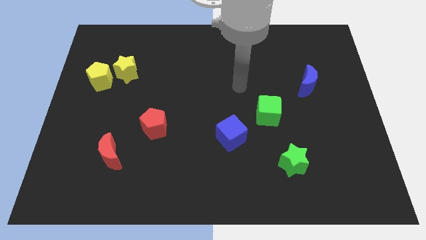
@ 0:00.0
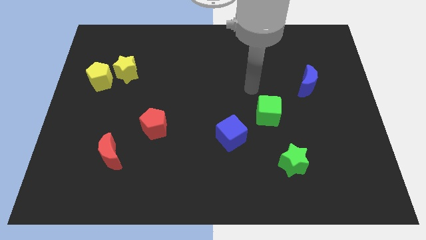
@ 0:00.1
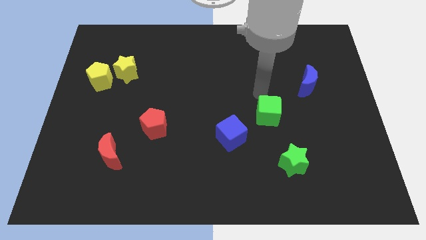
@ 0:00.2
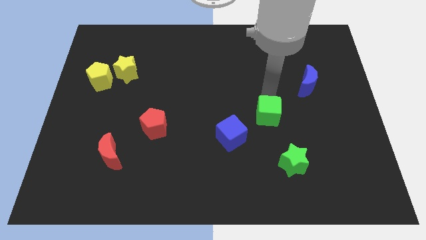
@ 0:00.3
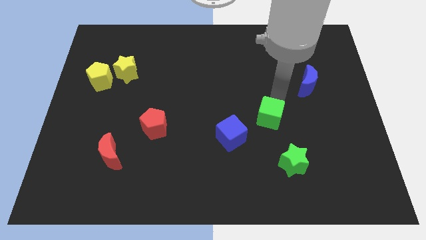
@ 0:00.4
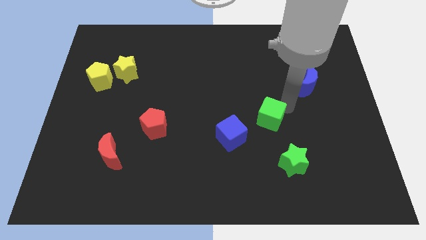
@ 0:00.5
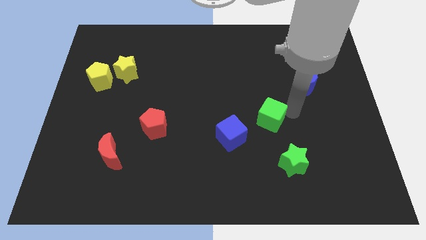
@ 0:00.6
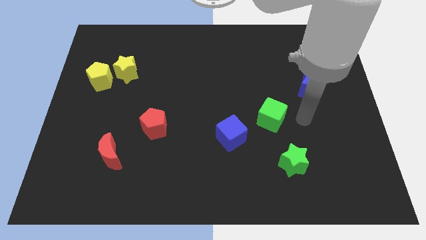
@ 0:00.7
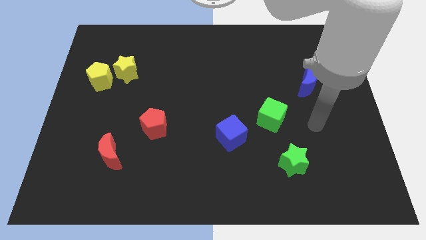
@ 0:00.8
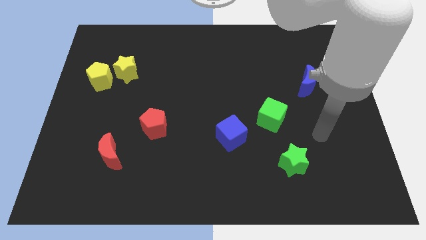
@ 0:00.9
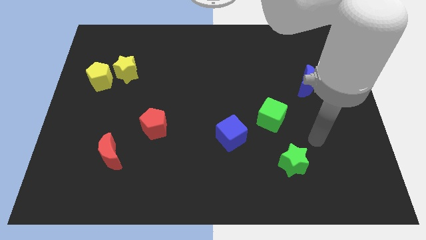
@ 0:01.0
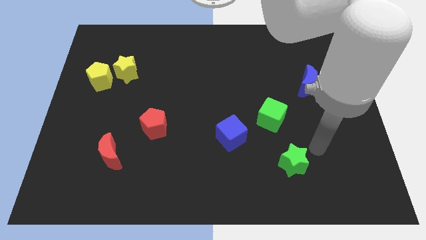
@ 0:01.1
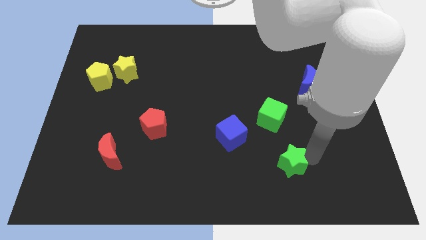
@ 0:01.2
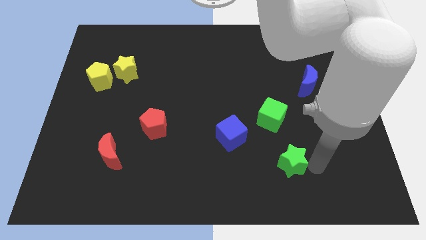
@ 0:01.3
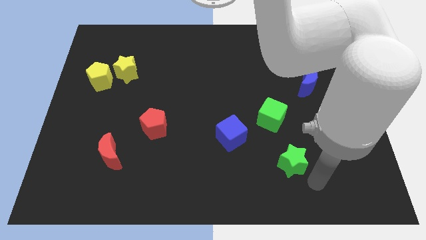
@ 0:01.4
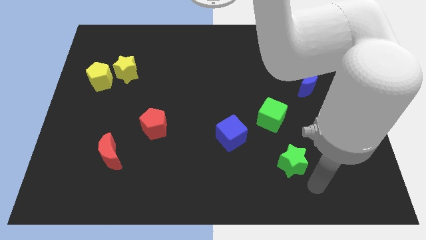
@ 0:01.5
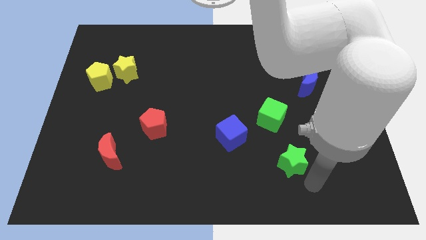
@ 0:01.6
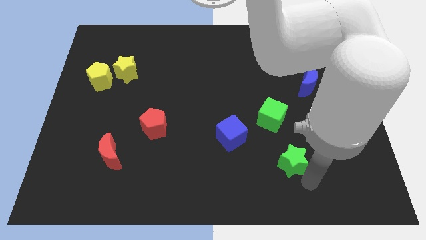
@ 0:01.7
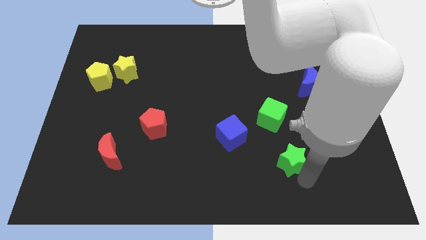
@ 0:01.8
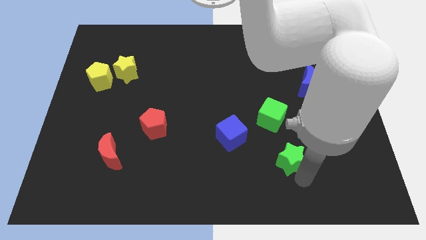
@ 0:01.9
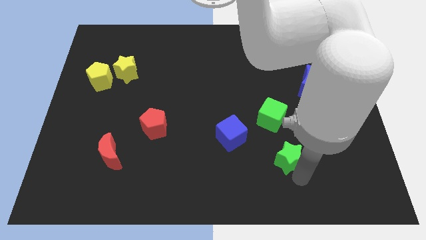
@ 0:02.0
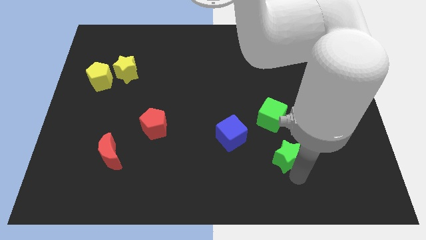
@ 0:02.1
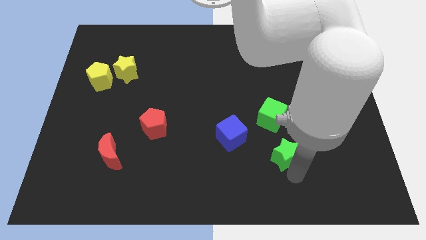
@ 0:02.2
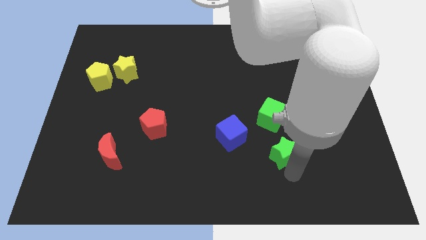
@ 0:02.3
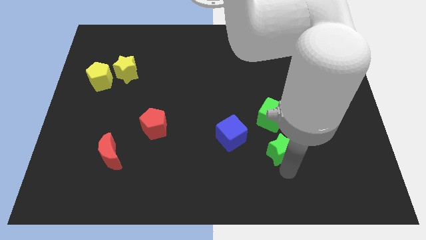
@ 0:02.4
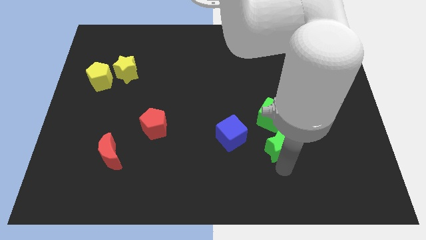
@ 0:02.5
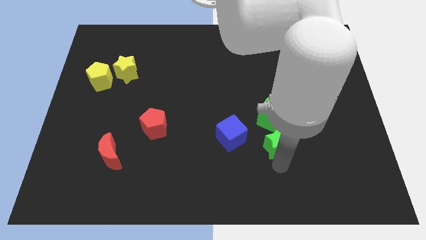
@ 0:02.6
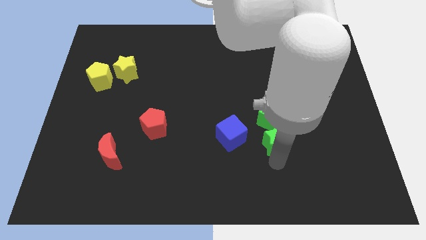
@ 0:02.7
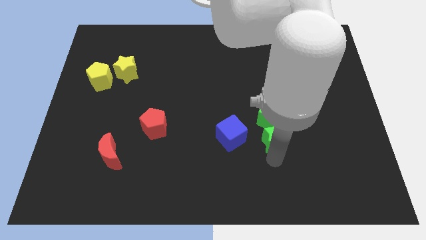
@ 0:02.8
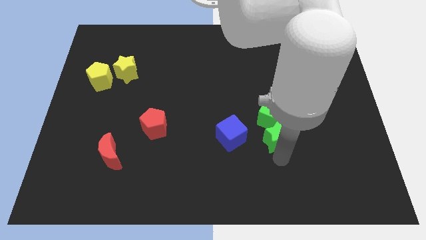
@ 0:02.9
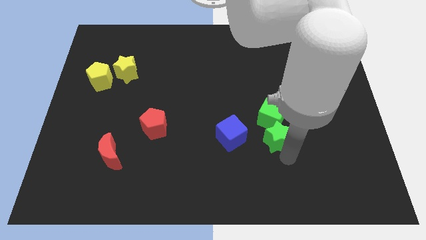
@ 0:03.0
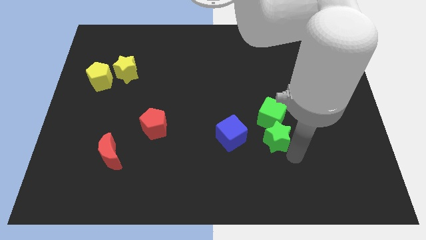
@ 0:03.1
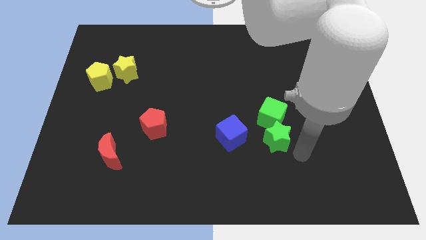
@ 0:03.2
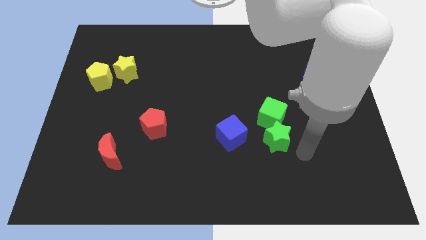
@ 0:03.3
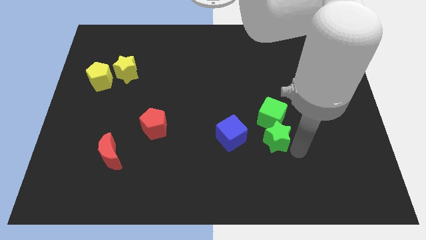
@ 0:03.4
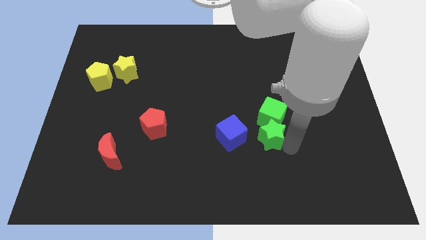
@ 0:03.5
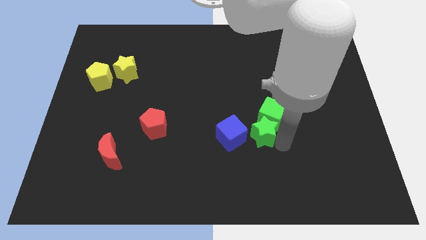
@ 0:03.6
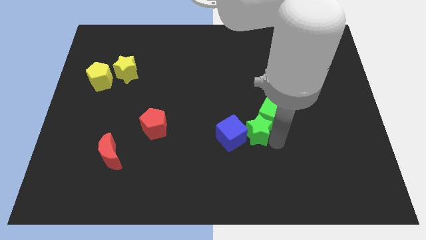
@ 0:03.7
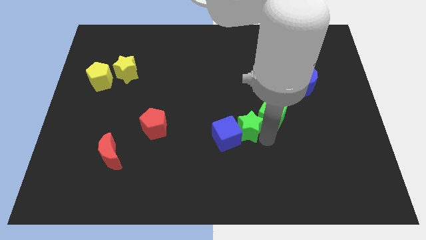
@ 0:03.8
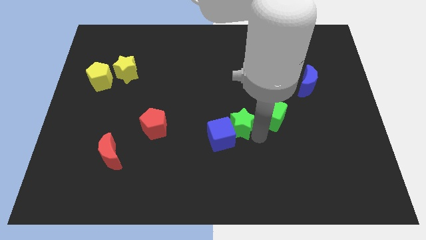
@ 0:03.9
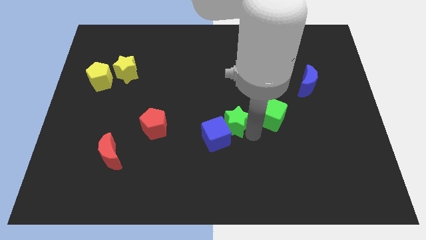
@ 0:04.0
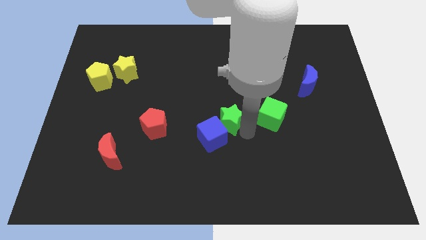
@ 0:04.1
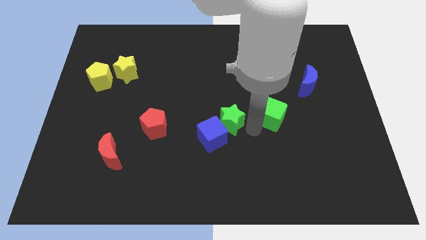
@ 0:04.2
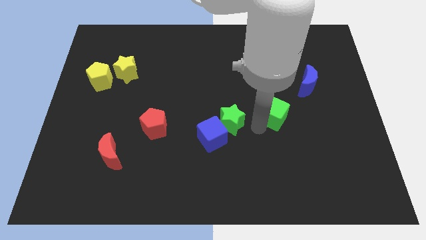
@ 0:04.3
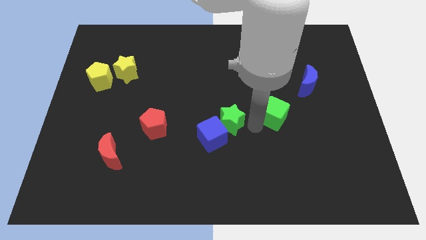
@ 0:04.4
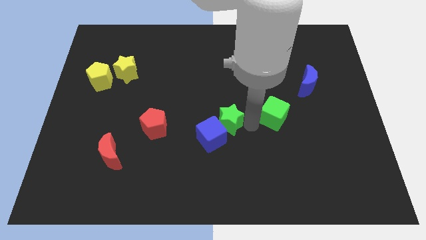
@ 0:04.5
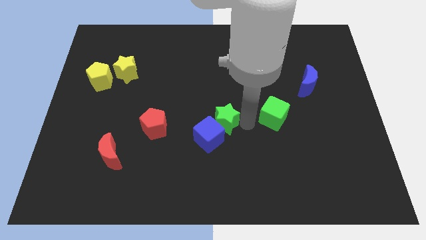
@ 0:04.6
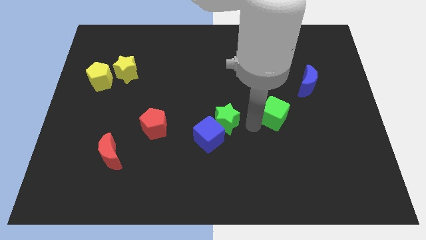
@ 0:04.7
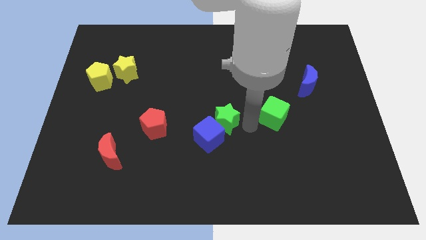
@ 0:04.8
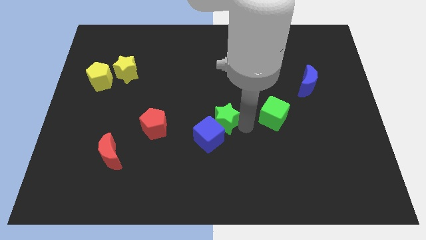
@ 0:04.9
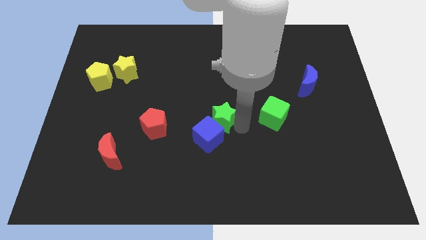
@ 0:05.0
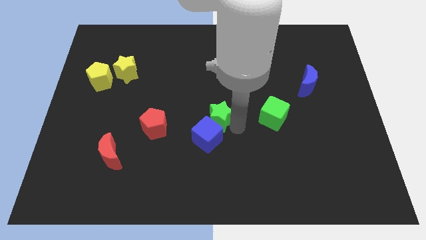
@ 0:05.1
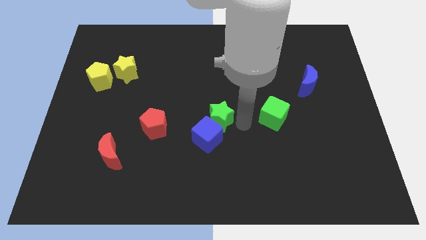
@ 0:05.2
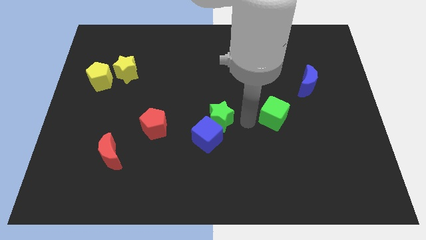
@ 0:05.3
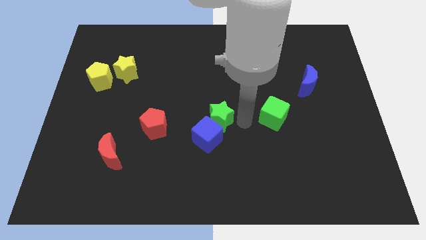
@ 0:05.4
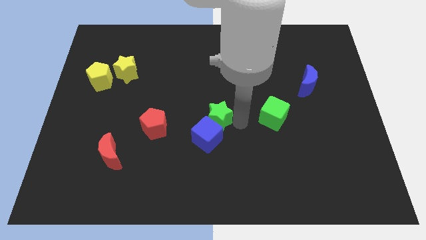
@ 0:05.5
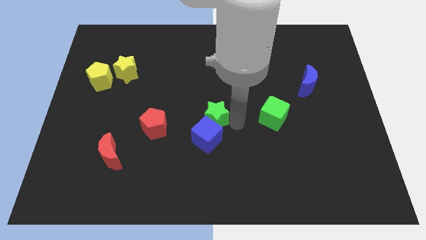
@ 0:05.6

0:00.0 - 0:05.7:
slide the green star to the top left of the blue cube

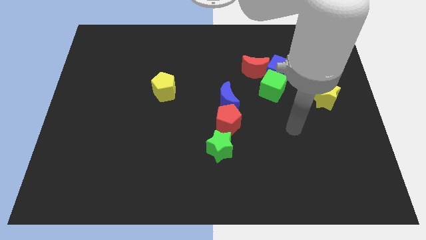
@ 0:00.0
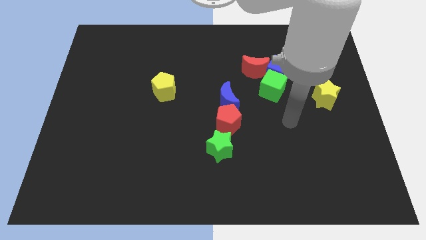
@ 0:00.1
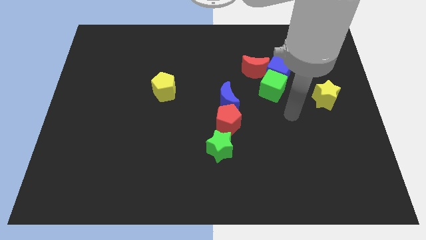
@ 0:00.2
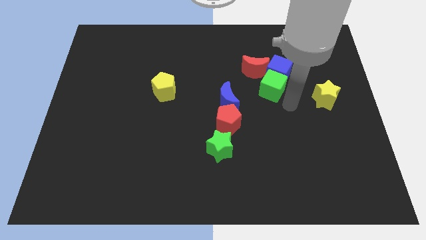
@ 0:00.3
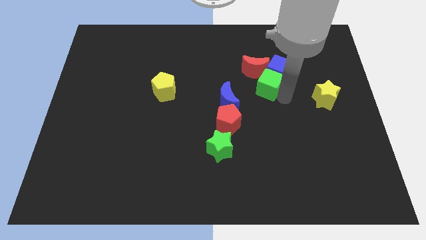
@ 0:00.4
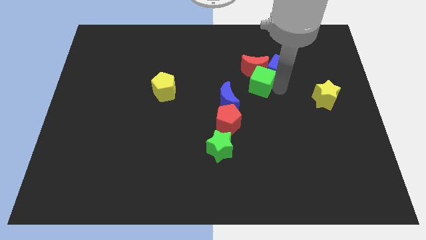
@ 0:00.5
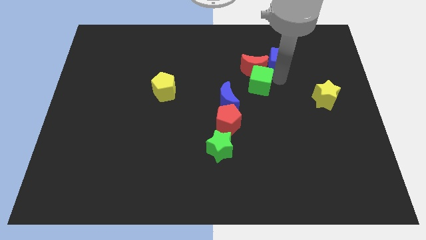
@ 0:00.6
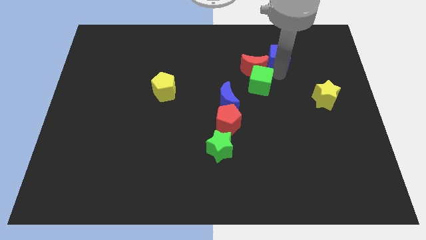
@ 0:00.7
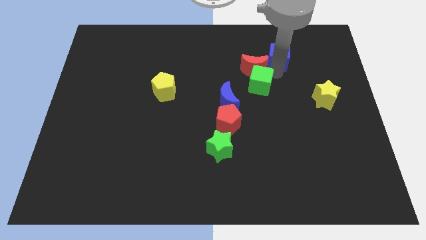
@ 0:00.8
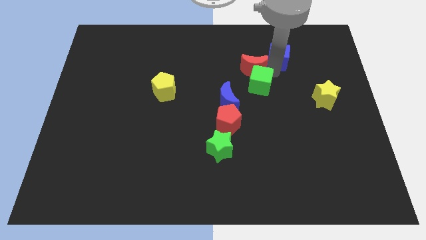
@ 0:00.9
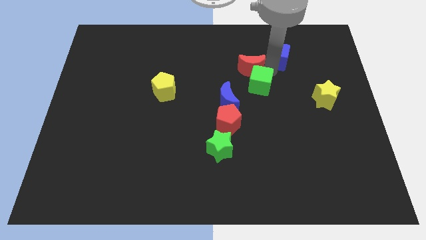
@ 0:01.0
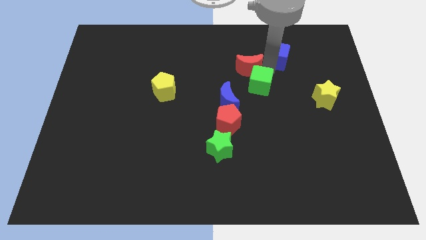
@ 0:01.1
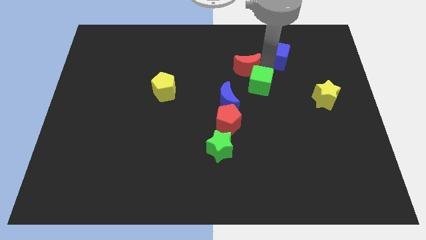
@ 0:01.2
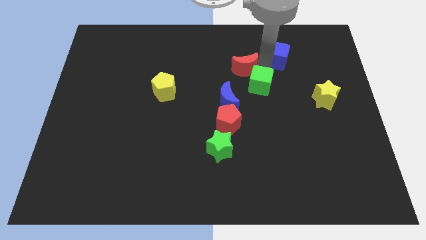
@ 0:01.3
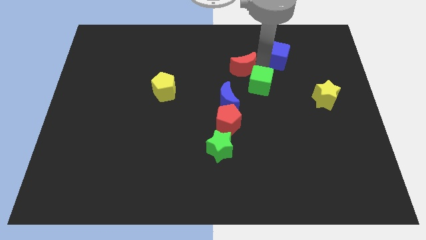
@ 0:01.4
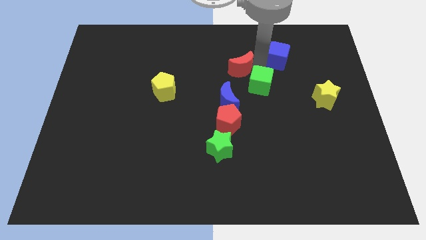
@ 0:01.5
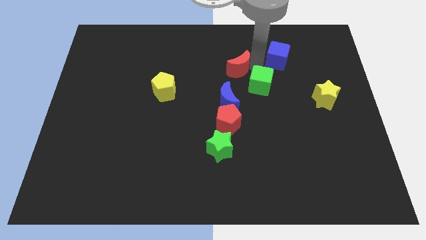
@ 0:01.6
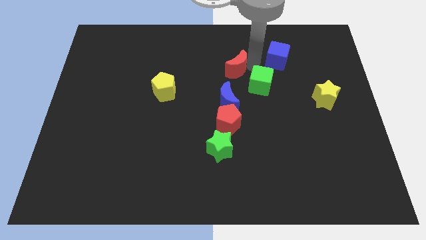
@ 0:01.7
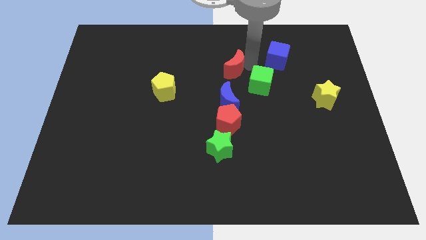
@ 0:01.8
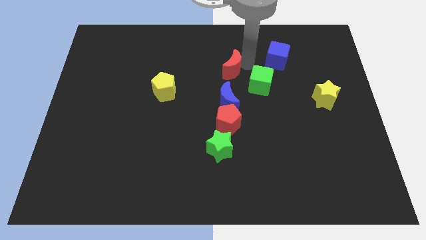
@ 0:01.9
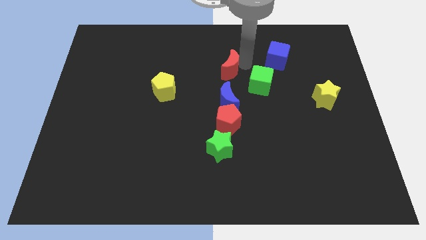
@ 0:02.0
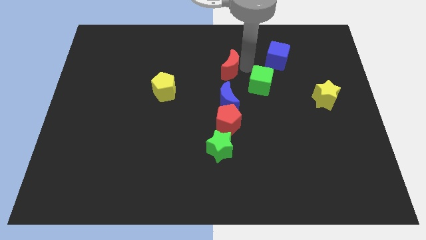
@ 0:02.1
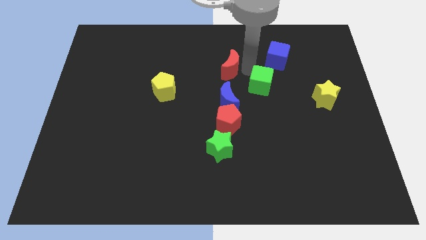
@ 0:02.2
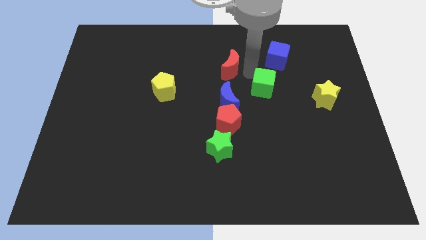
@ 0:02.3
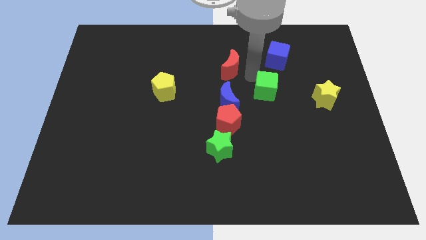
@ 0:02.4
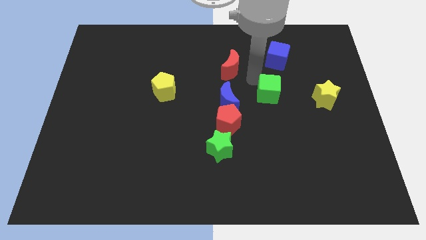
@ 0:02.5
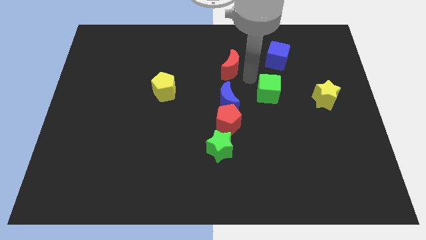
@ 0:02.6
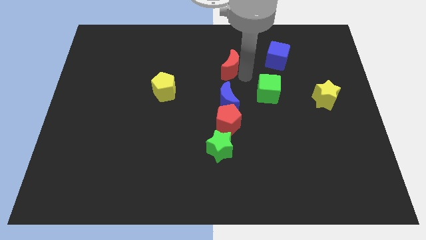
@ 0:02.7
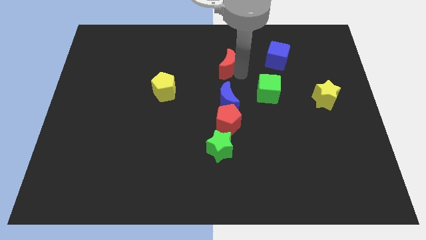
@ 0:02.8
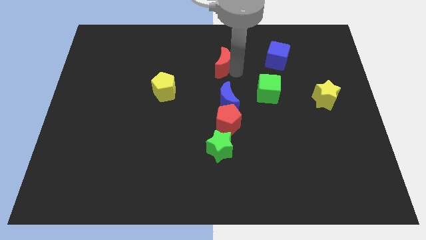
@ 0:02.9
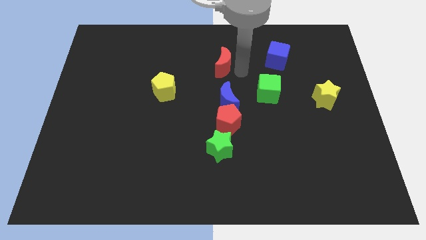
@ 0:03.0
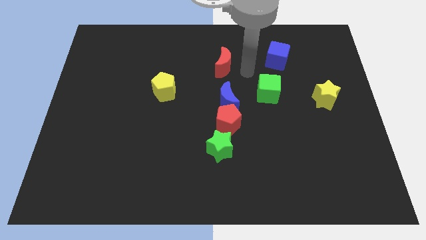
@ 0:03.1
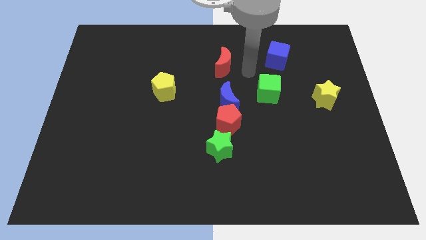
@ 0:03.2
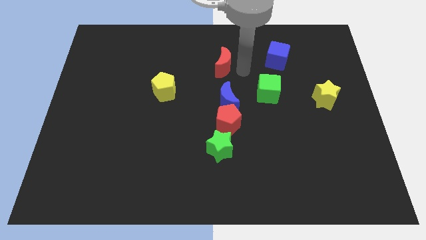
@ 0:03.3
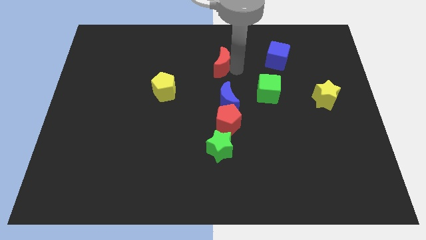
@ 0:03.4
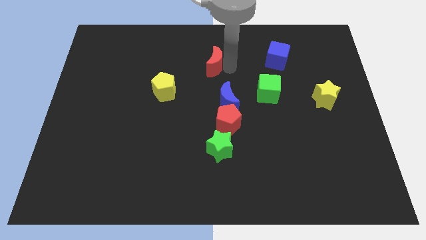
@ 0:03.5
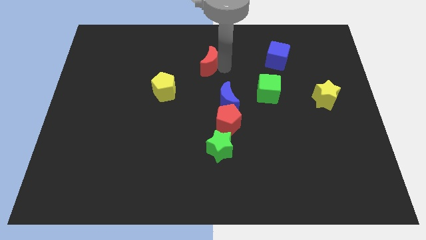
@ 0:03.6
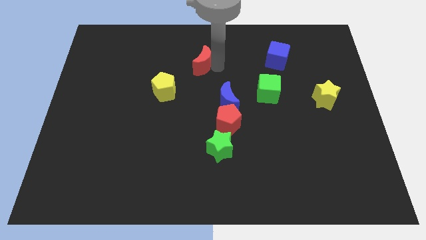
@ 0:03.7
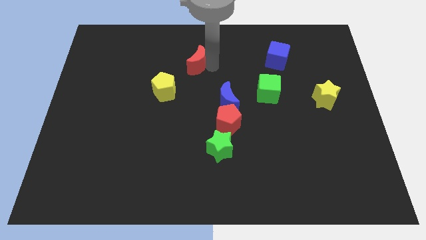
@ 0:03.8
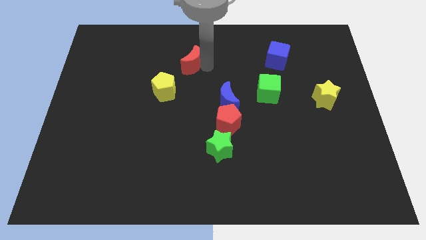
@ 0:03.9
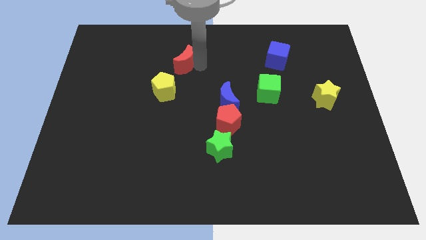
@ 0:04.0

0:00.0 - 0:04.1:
push the red moon to the top of the yellow pentagon
